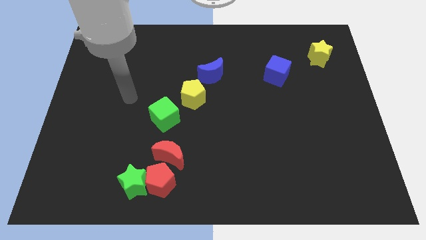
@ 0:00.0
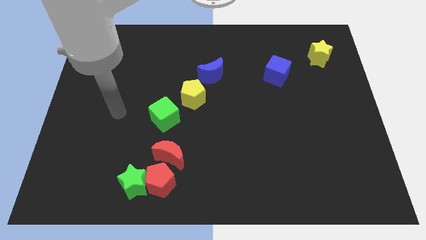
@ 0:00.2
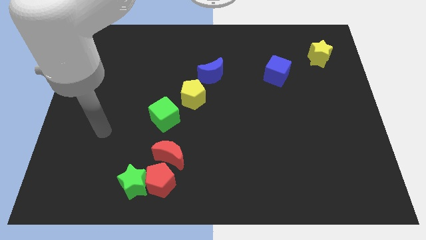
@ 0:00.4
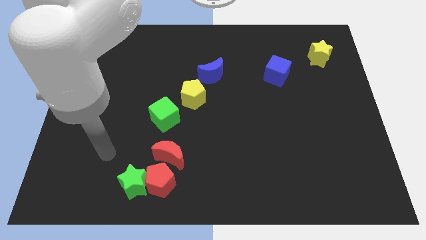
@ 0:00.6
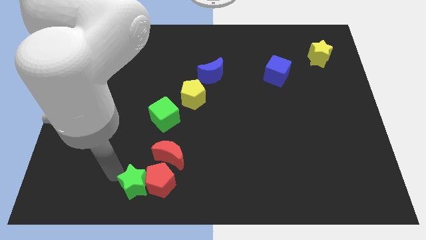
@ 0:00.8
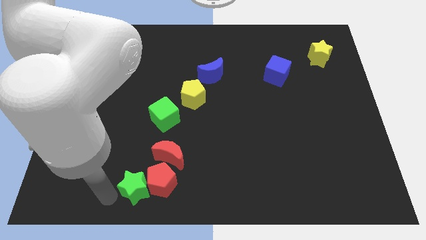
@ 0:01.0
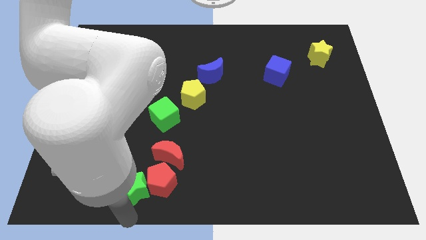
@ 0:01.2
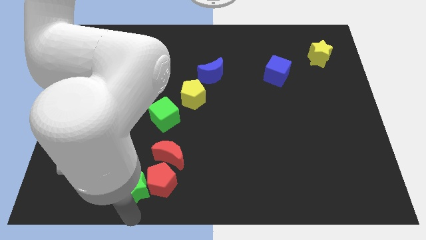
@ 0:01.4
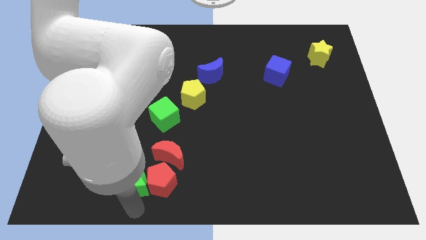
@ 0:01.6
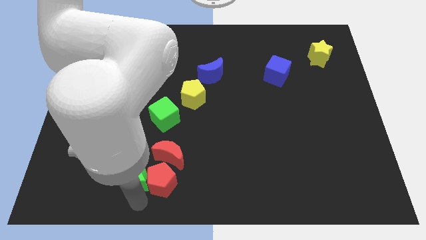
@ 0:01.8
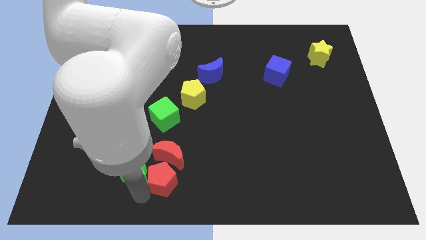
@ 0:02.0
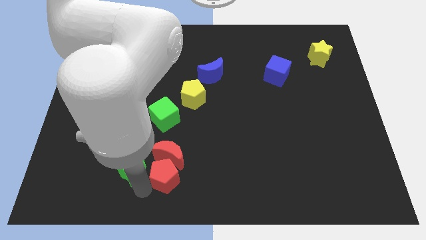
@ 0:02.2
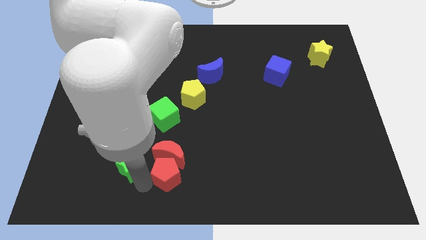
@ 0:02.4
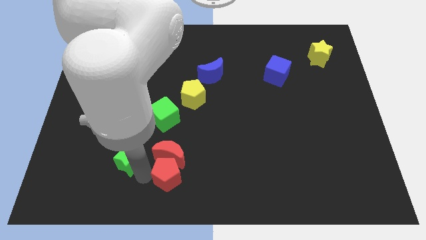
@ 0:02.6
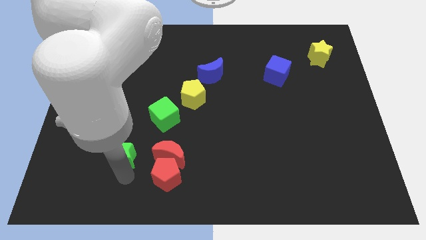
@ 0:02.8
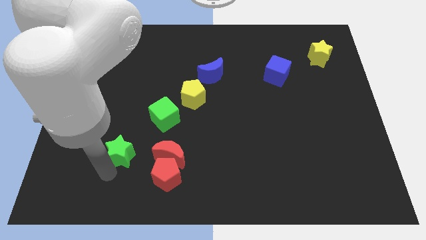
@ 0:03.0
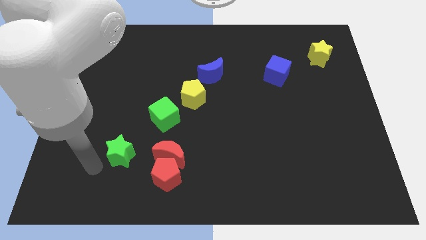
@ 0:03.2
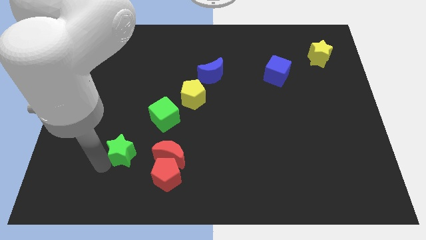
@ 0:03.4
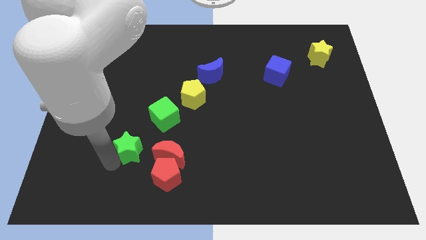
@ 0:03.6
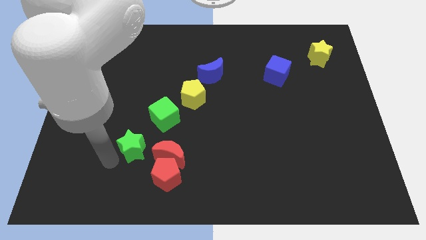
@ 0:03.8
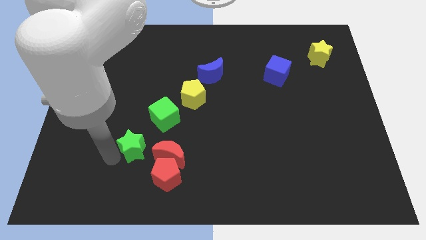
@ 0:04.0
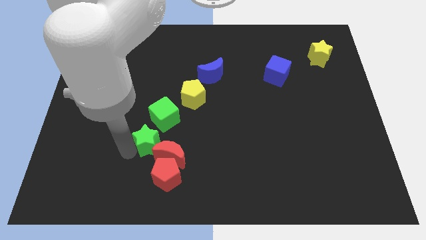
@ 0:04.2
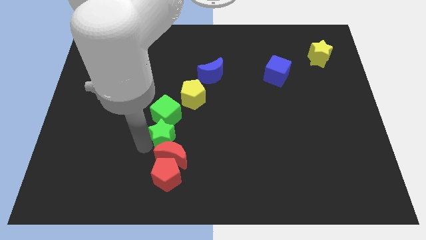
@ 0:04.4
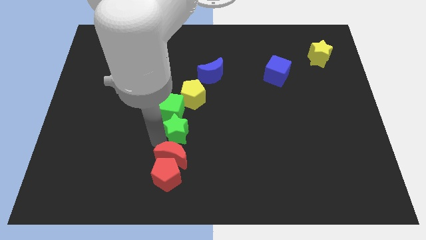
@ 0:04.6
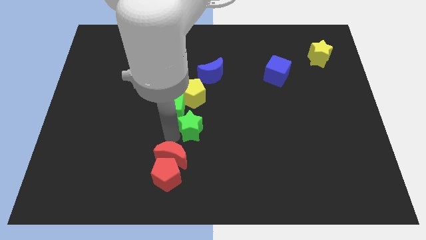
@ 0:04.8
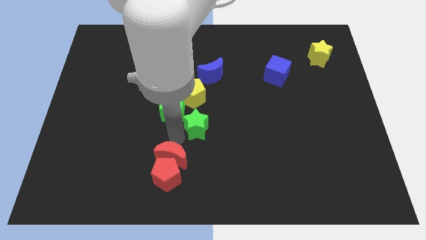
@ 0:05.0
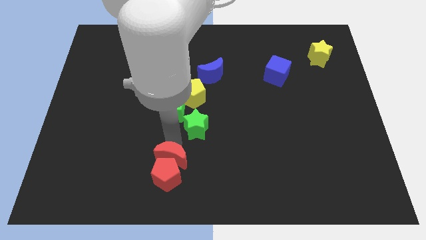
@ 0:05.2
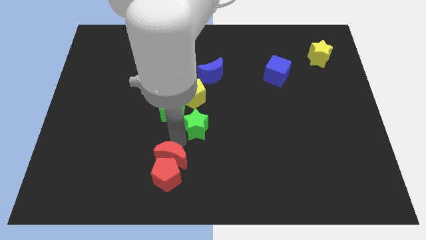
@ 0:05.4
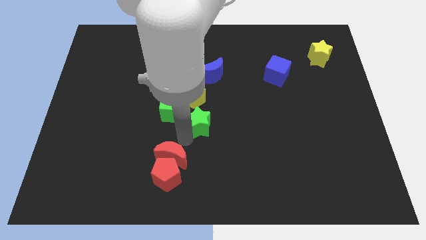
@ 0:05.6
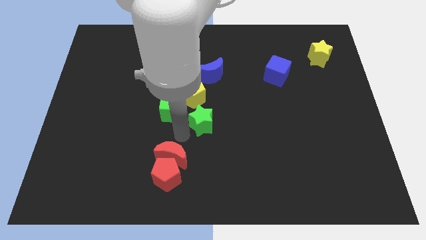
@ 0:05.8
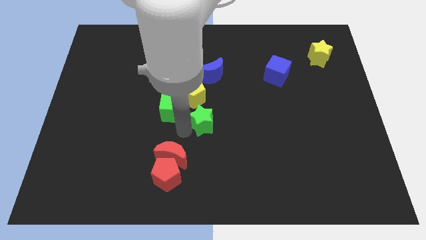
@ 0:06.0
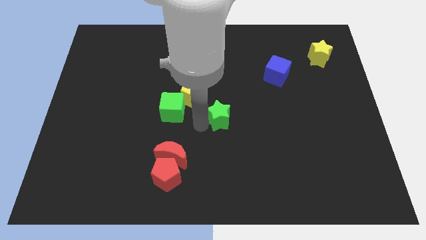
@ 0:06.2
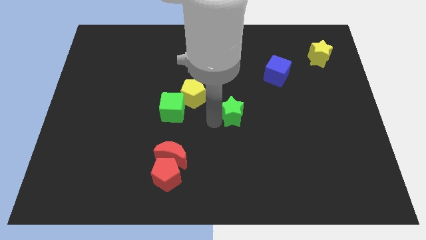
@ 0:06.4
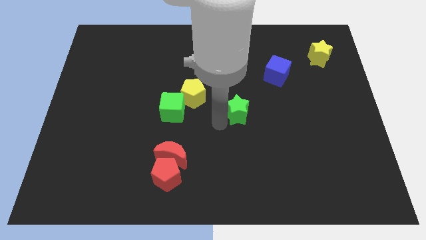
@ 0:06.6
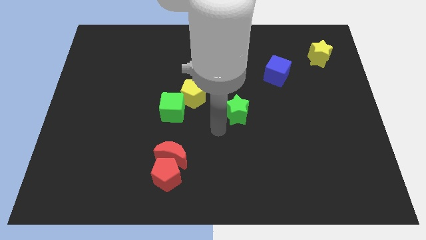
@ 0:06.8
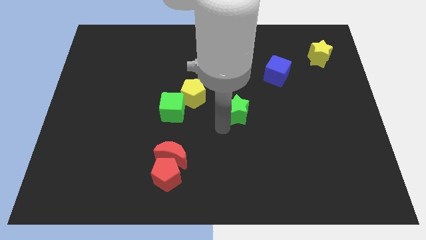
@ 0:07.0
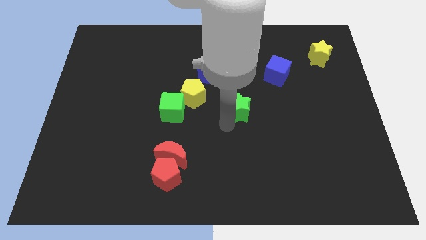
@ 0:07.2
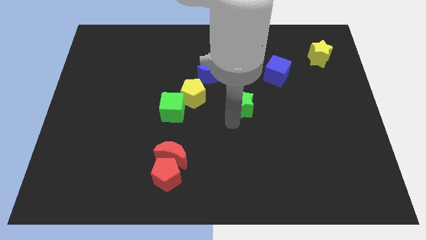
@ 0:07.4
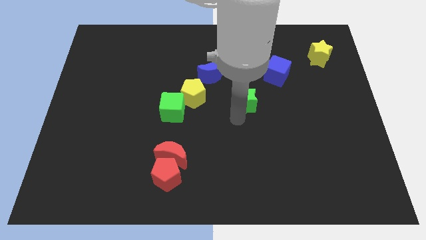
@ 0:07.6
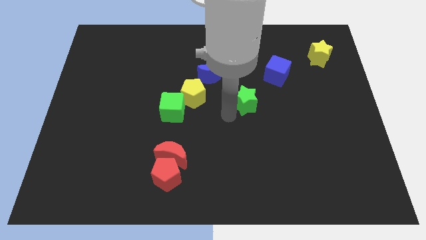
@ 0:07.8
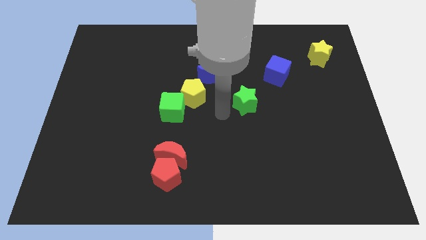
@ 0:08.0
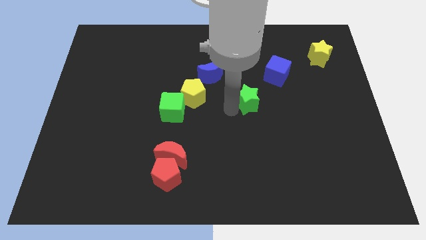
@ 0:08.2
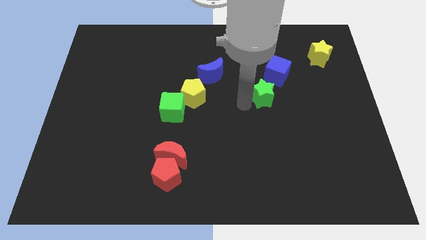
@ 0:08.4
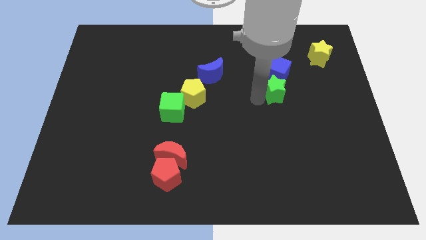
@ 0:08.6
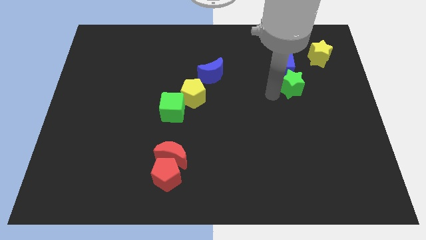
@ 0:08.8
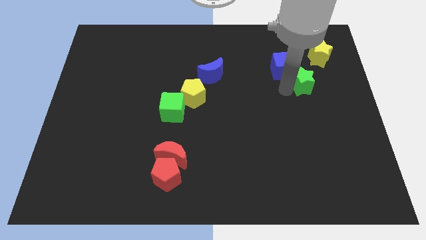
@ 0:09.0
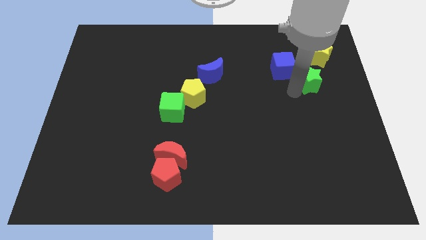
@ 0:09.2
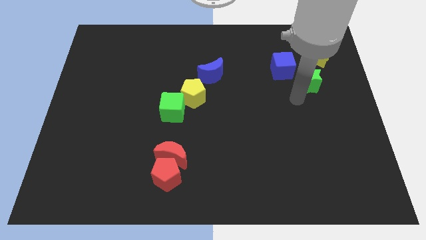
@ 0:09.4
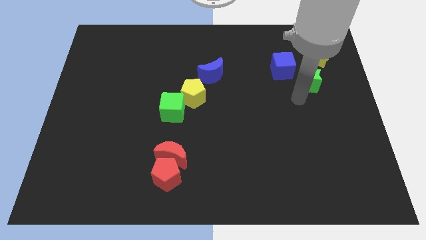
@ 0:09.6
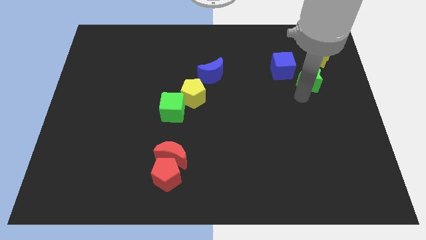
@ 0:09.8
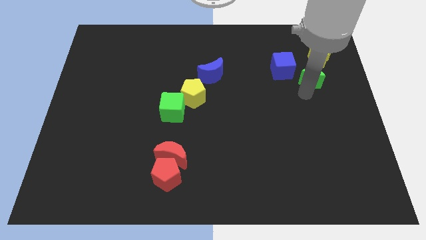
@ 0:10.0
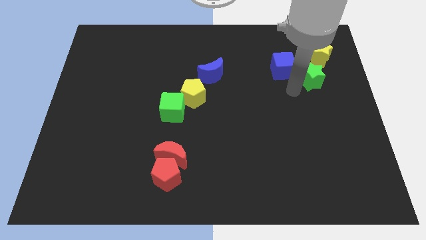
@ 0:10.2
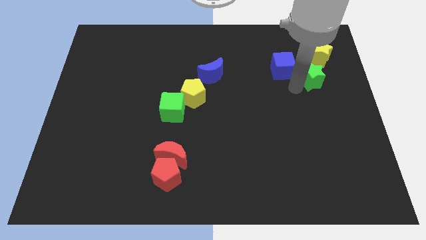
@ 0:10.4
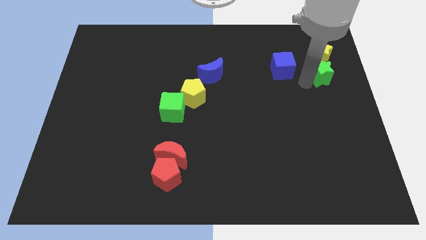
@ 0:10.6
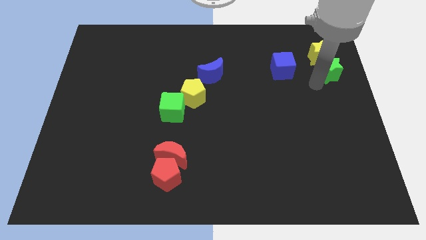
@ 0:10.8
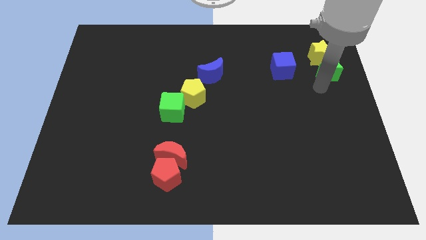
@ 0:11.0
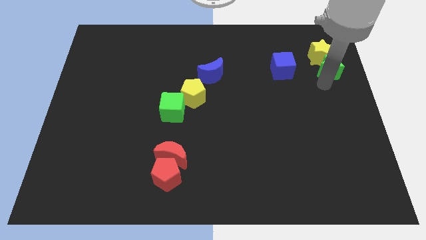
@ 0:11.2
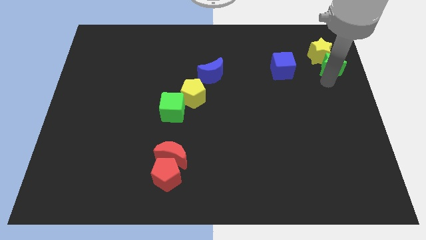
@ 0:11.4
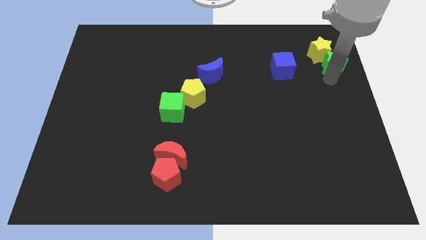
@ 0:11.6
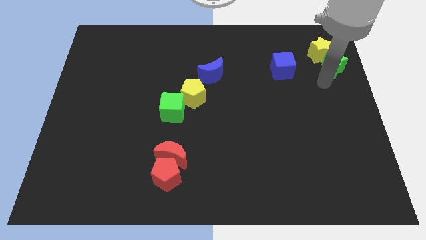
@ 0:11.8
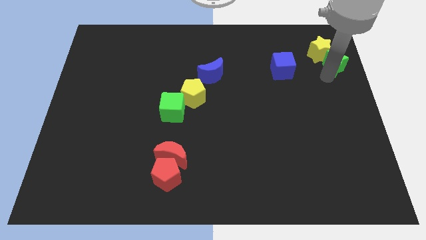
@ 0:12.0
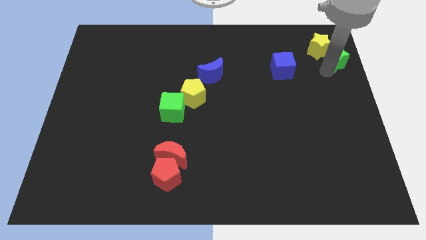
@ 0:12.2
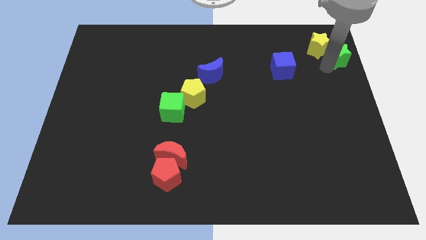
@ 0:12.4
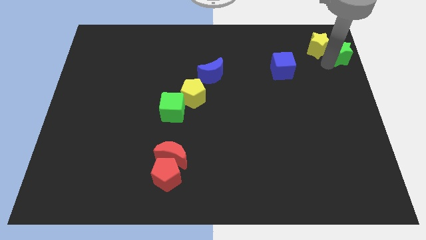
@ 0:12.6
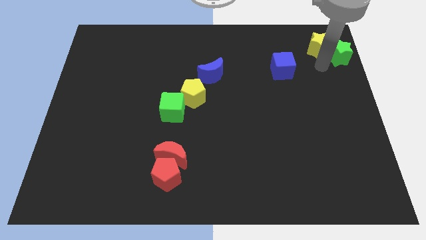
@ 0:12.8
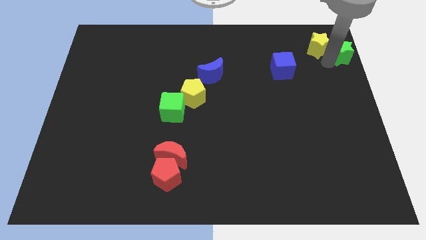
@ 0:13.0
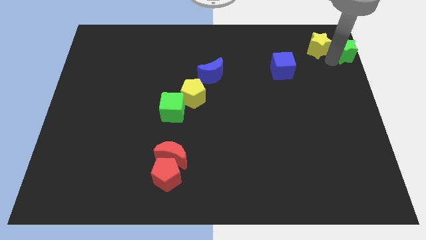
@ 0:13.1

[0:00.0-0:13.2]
move the green star to the top right

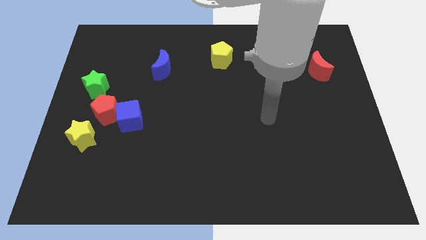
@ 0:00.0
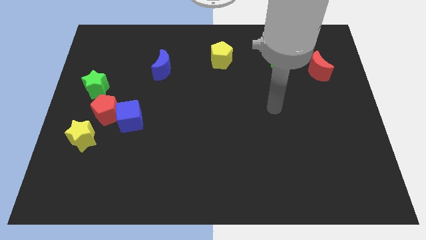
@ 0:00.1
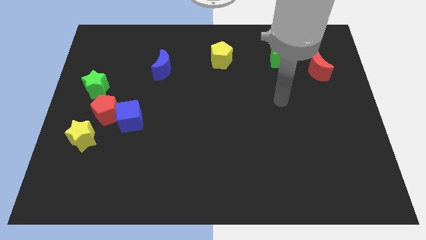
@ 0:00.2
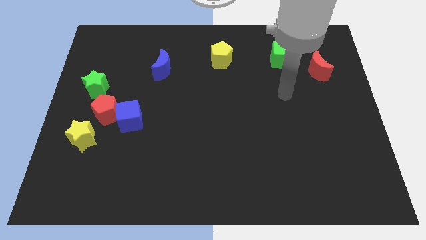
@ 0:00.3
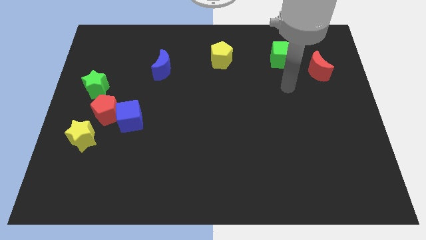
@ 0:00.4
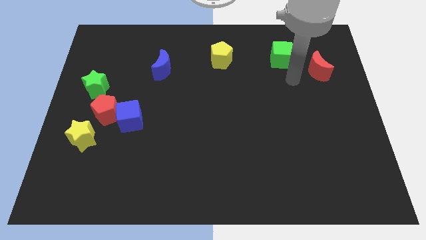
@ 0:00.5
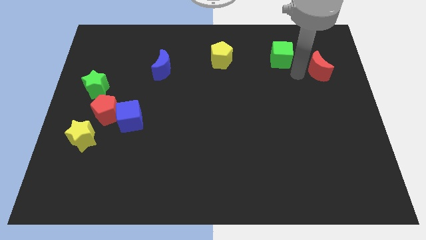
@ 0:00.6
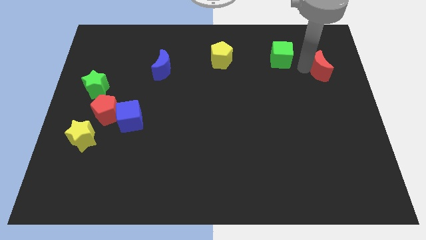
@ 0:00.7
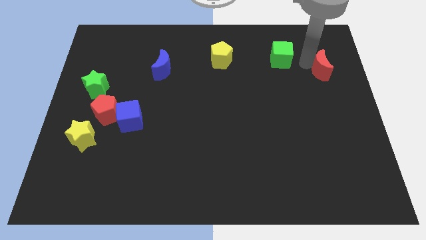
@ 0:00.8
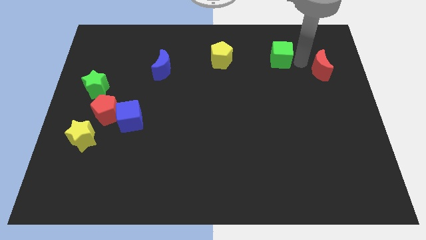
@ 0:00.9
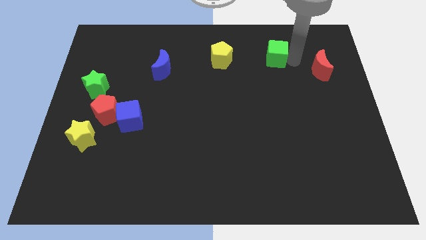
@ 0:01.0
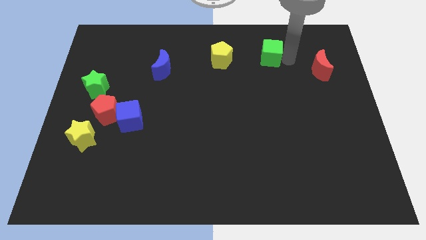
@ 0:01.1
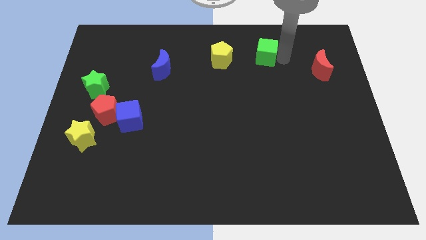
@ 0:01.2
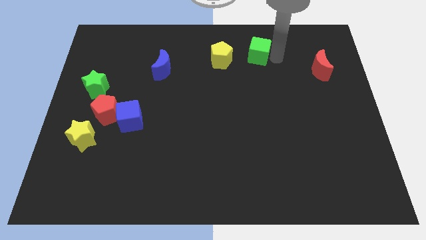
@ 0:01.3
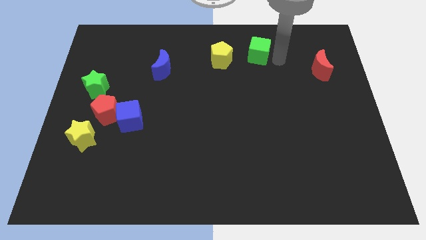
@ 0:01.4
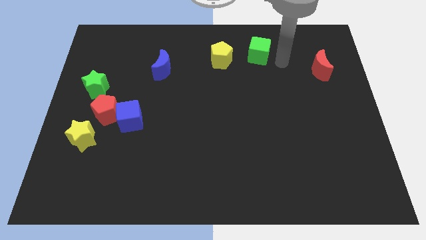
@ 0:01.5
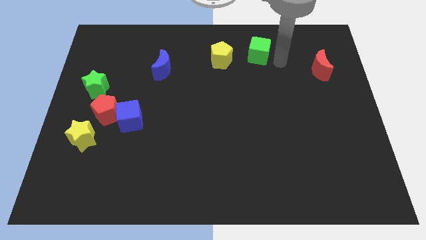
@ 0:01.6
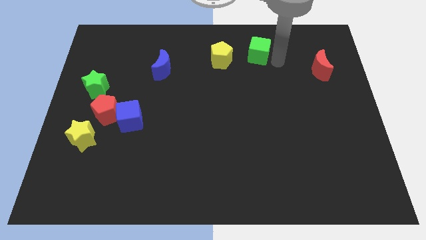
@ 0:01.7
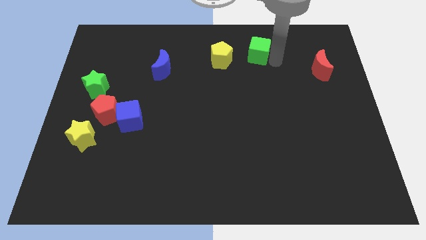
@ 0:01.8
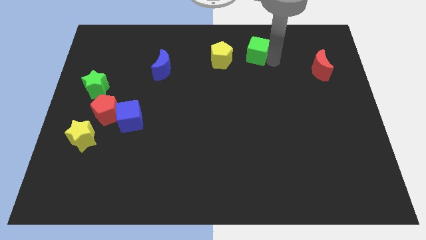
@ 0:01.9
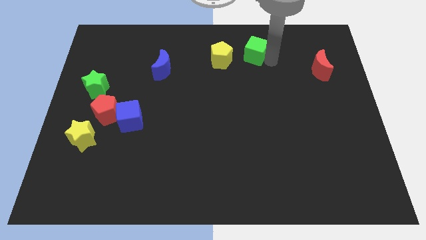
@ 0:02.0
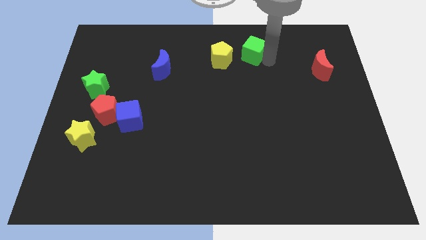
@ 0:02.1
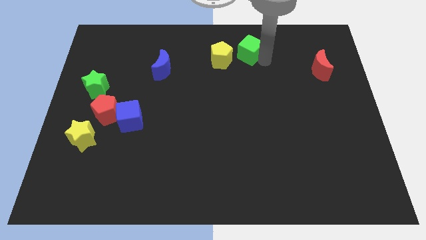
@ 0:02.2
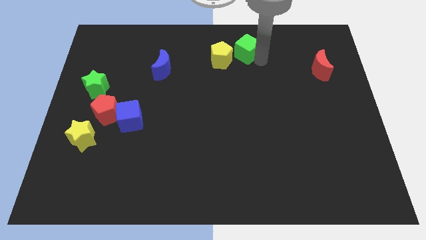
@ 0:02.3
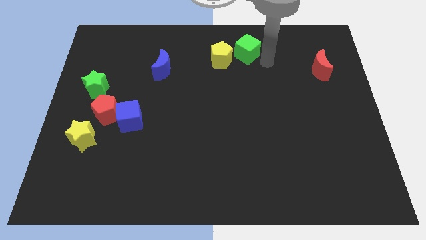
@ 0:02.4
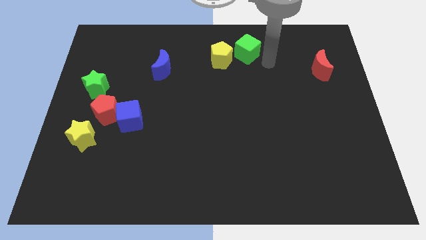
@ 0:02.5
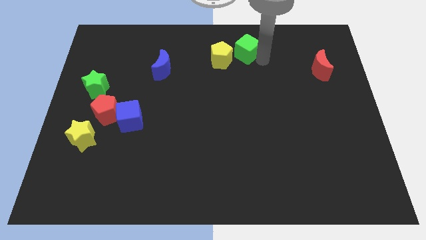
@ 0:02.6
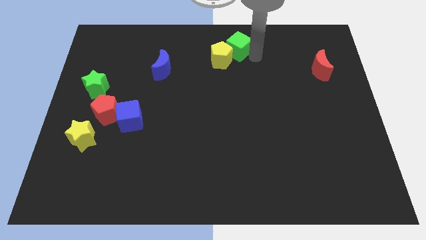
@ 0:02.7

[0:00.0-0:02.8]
move the green cube to the towards your base
